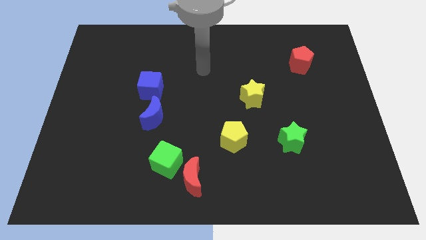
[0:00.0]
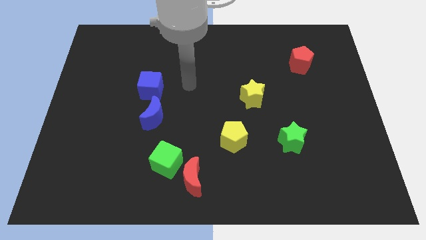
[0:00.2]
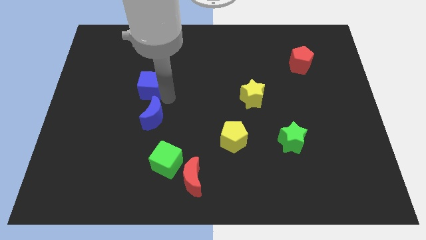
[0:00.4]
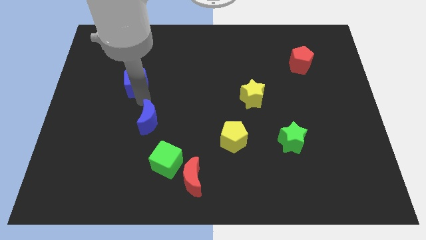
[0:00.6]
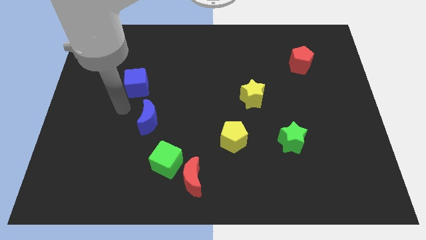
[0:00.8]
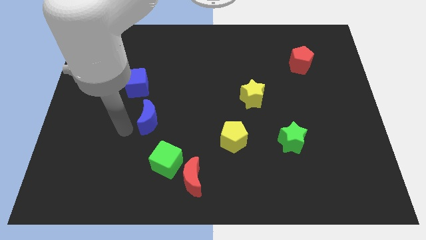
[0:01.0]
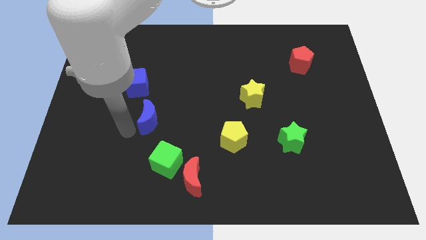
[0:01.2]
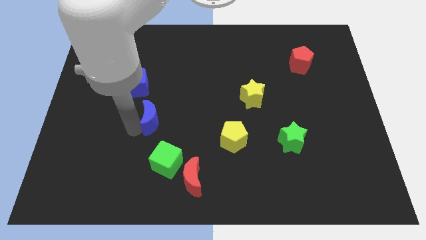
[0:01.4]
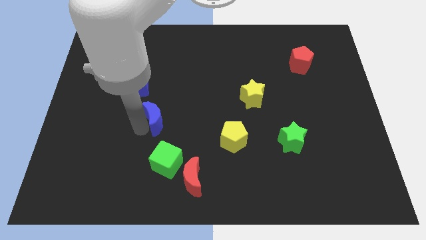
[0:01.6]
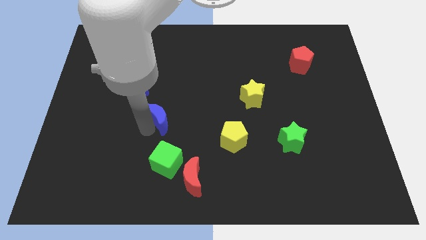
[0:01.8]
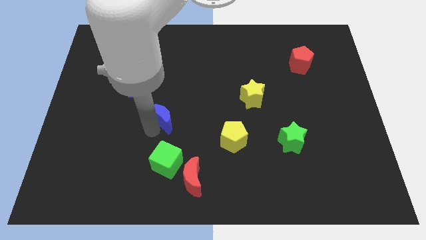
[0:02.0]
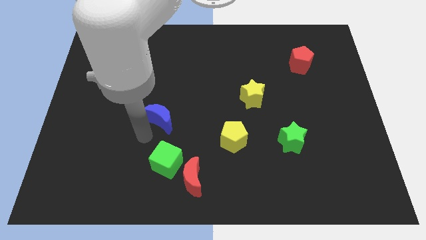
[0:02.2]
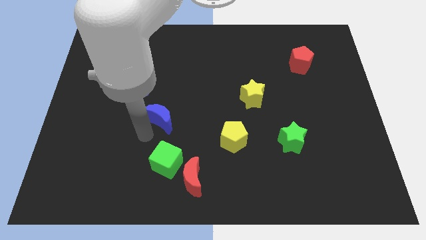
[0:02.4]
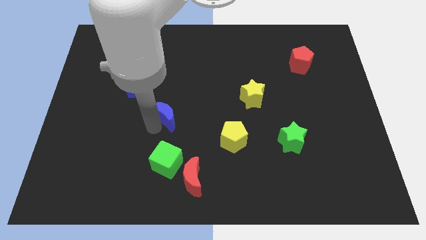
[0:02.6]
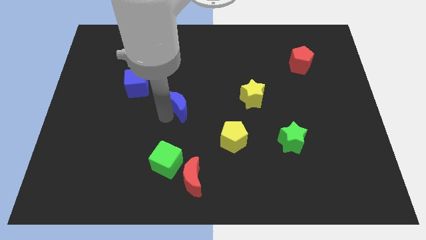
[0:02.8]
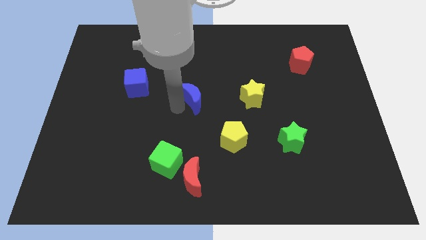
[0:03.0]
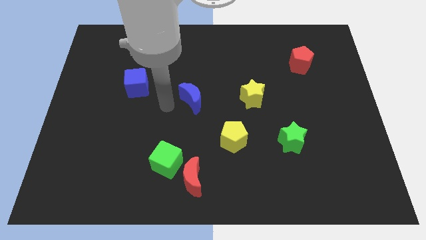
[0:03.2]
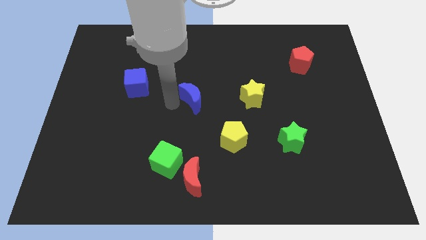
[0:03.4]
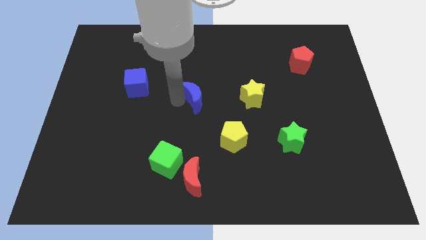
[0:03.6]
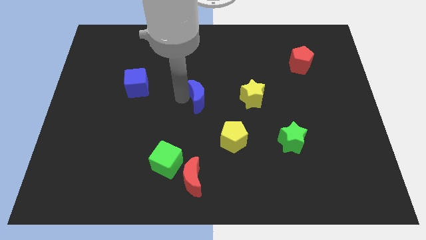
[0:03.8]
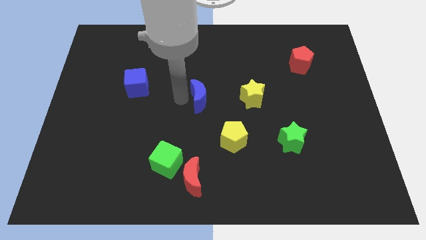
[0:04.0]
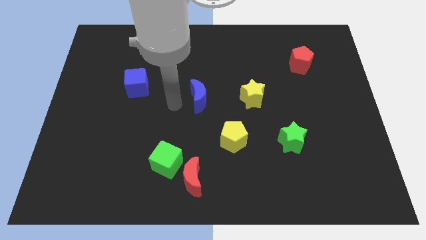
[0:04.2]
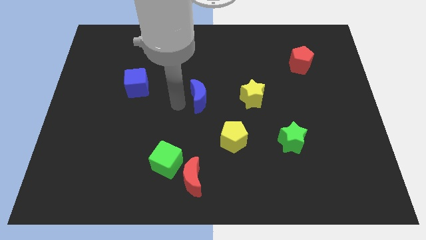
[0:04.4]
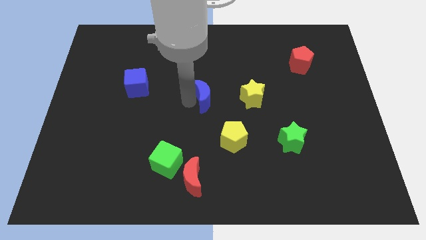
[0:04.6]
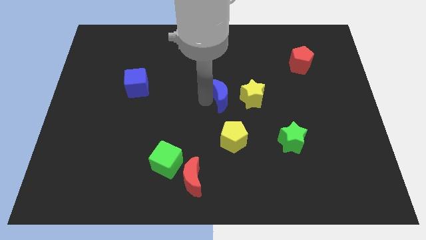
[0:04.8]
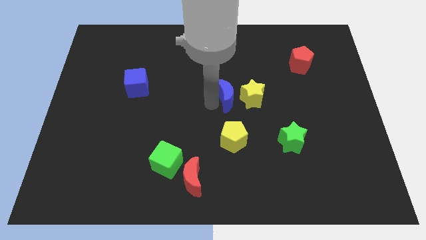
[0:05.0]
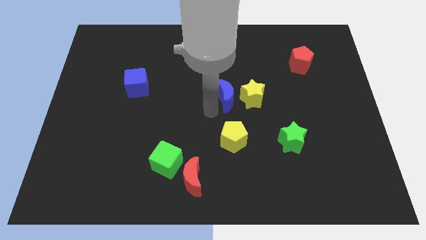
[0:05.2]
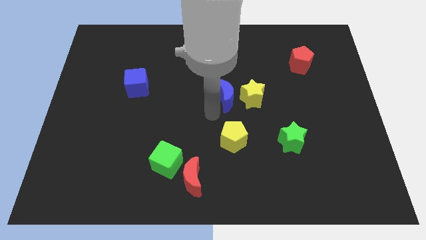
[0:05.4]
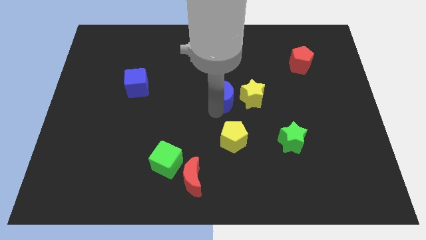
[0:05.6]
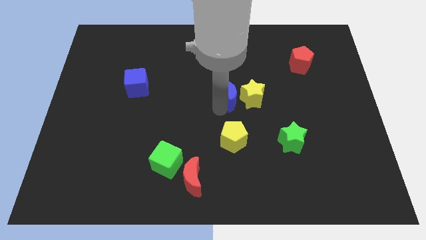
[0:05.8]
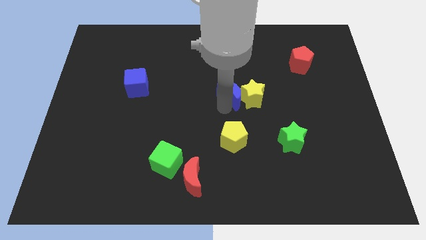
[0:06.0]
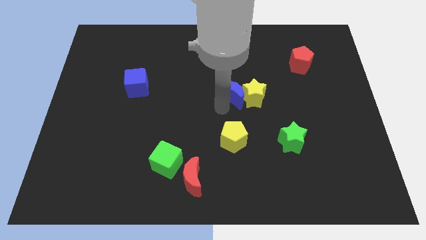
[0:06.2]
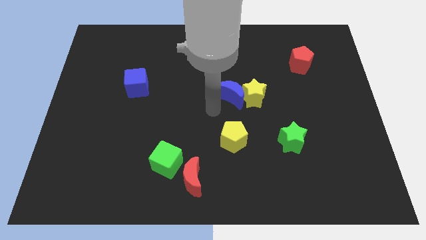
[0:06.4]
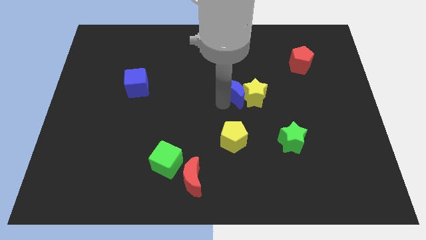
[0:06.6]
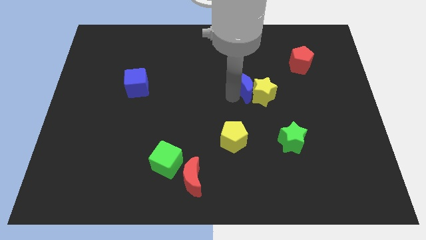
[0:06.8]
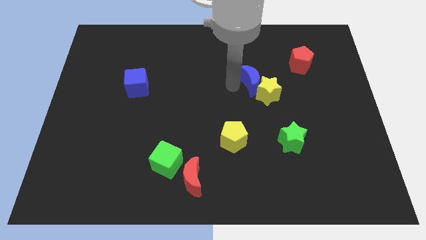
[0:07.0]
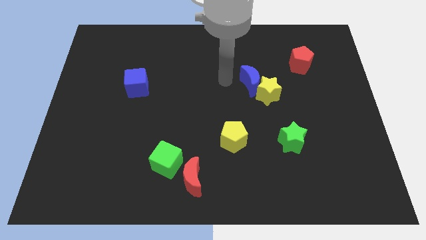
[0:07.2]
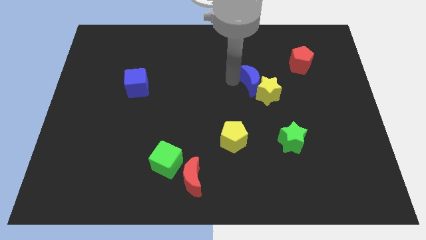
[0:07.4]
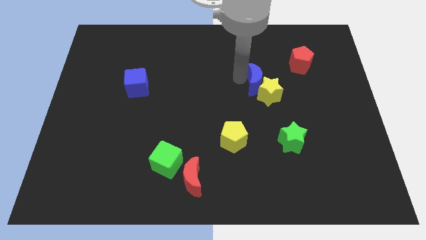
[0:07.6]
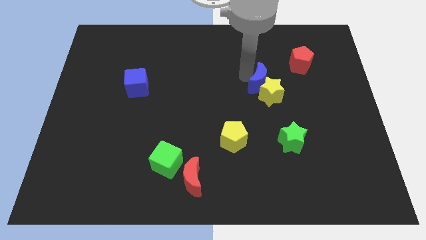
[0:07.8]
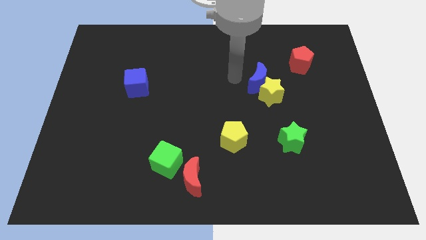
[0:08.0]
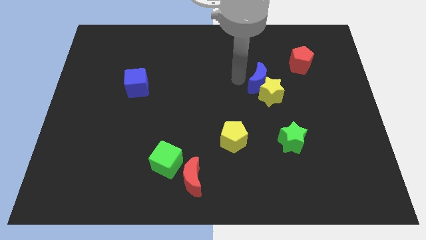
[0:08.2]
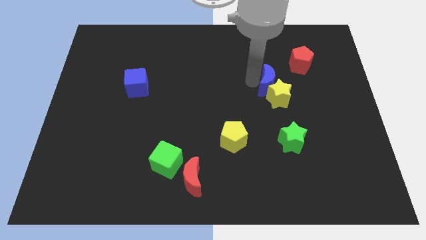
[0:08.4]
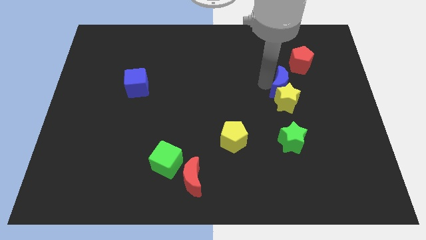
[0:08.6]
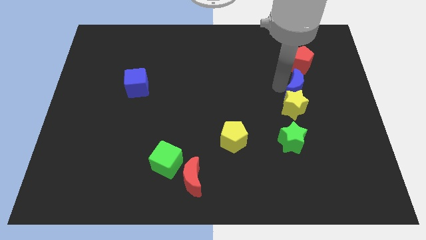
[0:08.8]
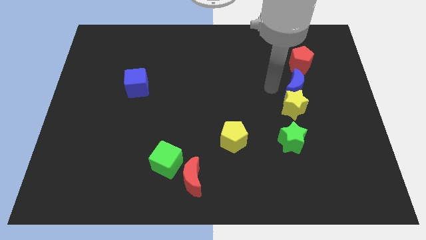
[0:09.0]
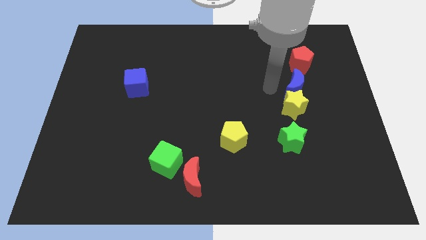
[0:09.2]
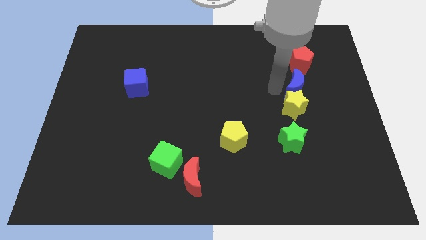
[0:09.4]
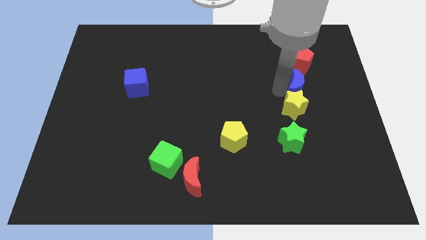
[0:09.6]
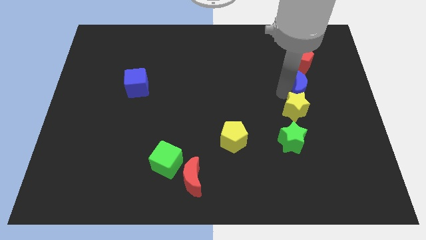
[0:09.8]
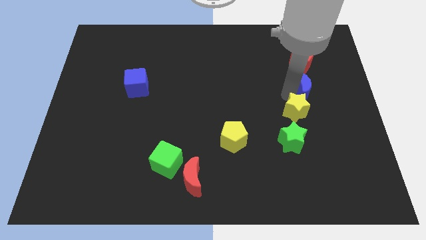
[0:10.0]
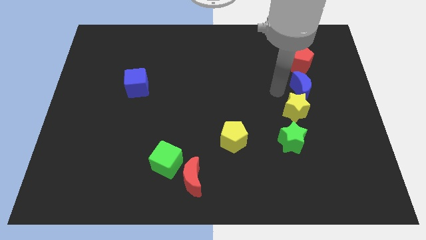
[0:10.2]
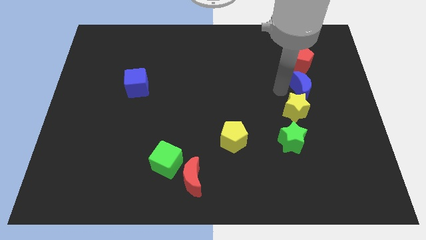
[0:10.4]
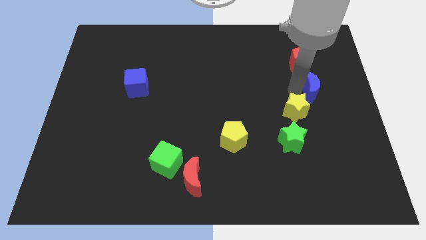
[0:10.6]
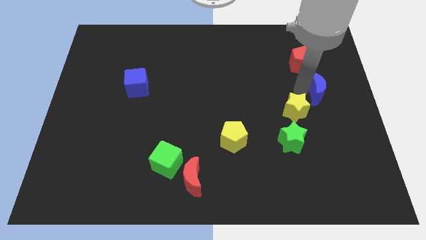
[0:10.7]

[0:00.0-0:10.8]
move the blue moon to the right side of the board
